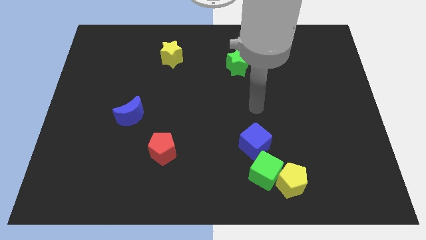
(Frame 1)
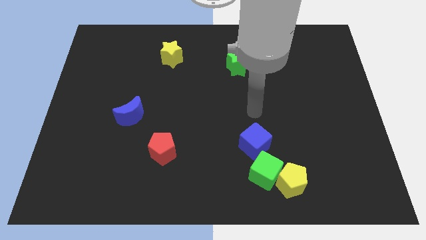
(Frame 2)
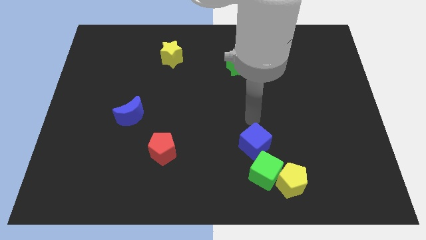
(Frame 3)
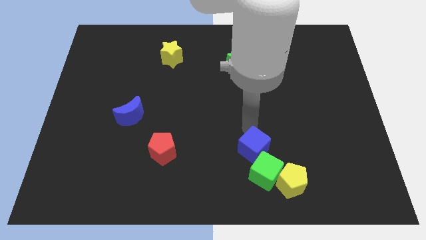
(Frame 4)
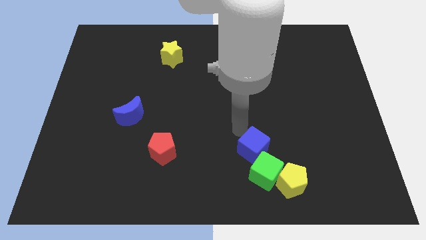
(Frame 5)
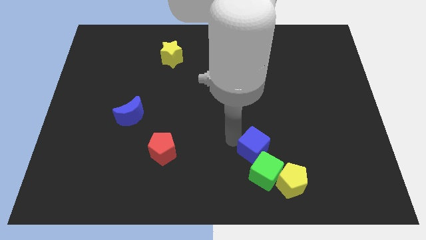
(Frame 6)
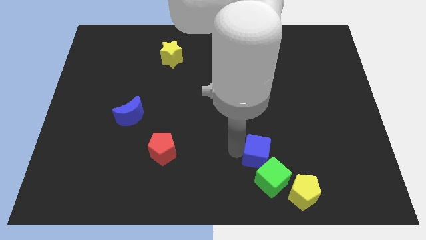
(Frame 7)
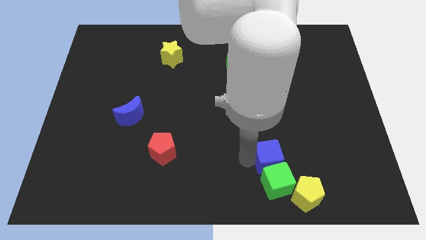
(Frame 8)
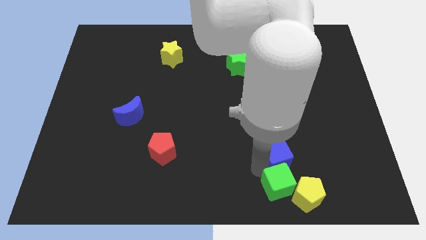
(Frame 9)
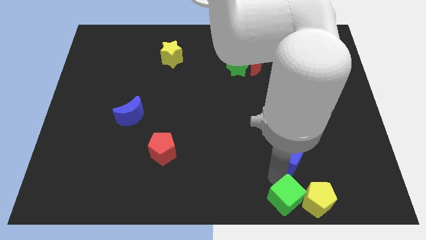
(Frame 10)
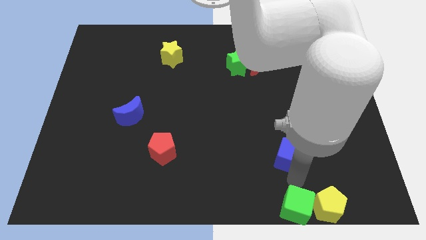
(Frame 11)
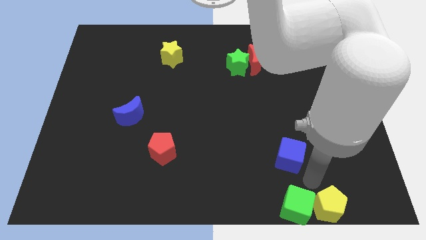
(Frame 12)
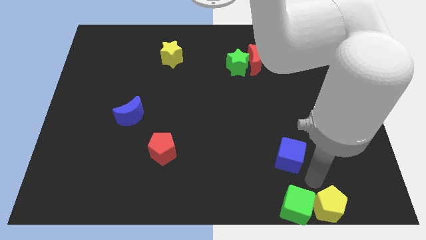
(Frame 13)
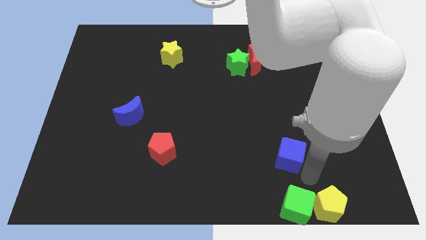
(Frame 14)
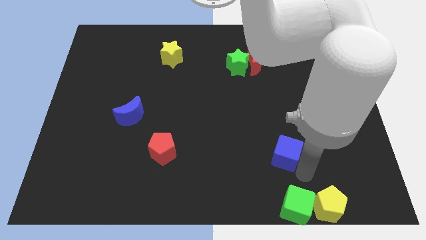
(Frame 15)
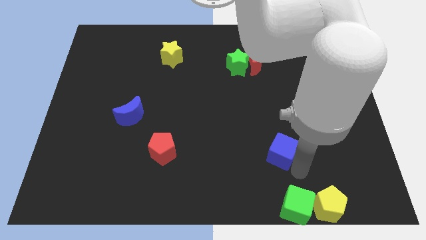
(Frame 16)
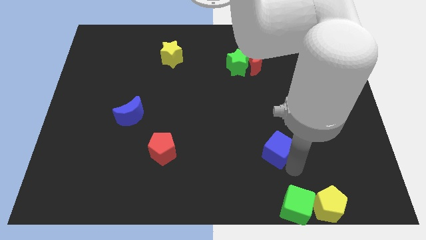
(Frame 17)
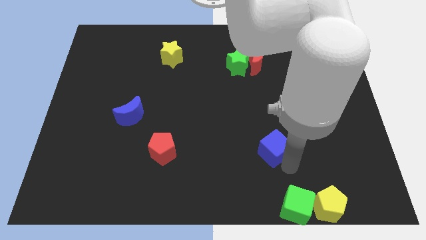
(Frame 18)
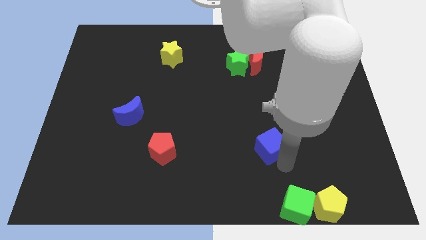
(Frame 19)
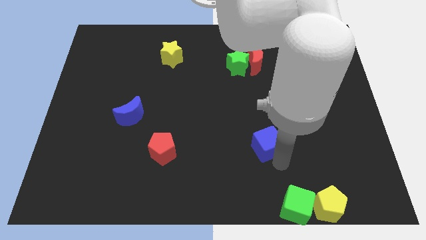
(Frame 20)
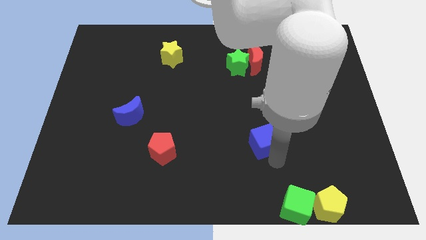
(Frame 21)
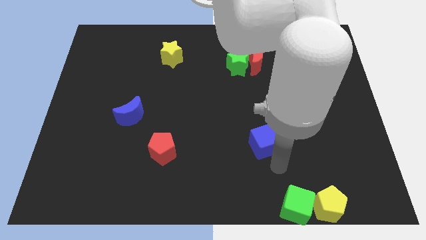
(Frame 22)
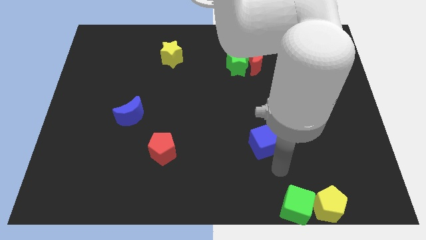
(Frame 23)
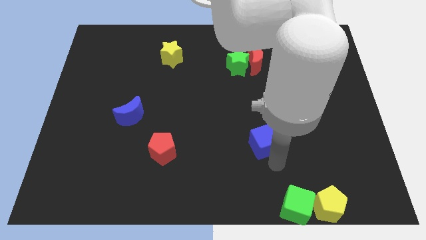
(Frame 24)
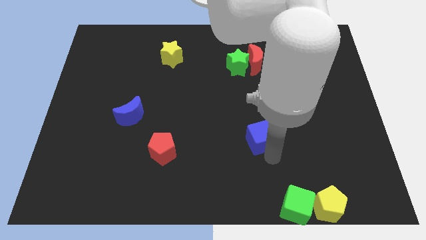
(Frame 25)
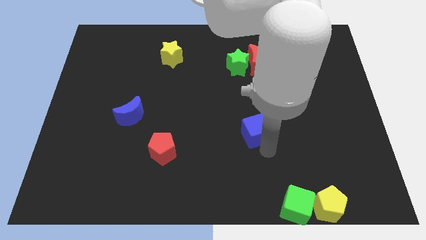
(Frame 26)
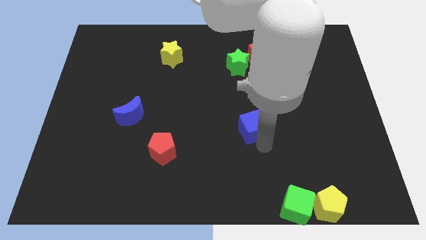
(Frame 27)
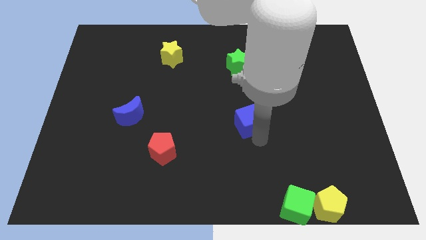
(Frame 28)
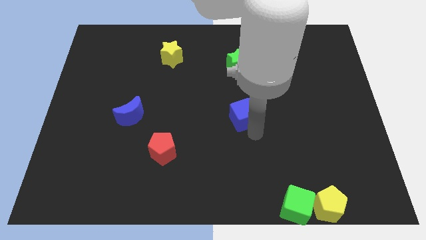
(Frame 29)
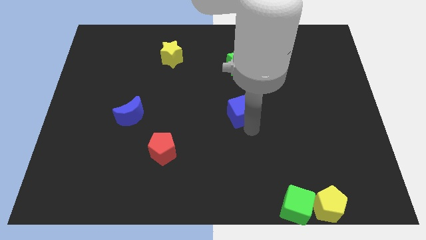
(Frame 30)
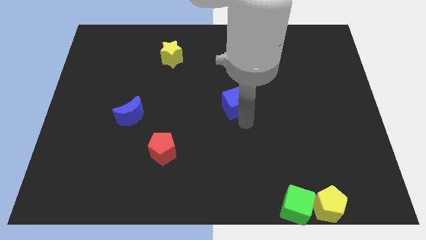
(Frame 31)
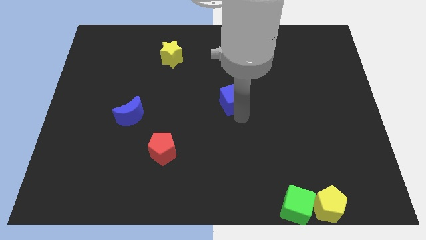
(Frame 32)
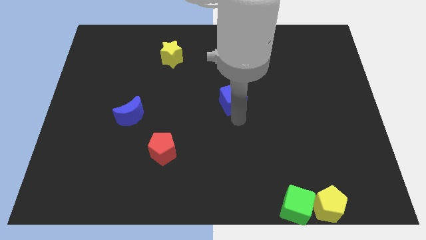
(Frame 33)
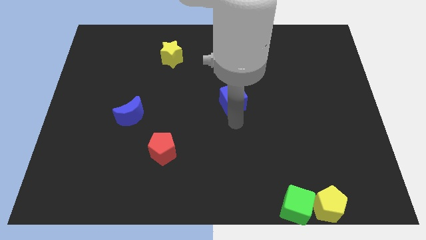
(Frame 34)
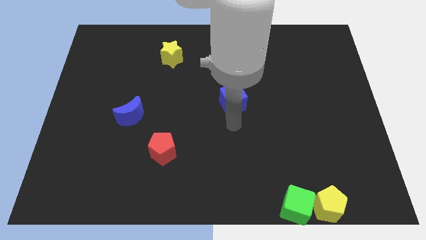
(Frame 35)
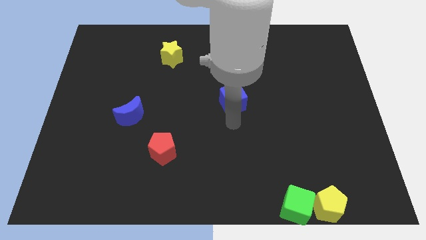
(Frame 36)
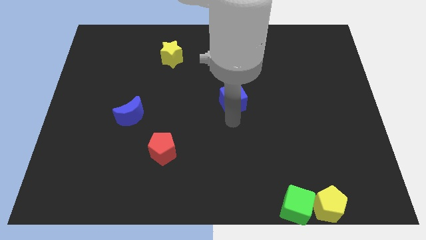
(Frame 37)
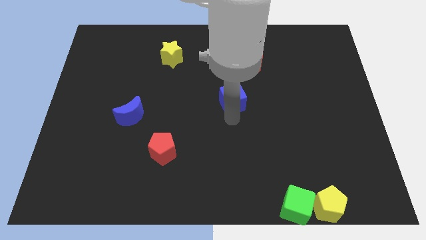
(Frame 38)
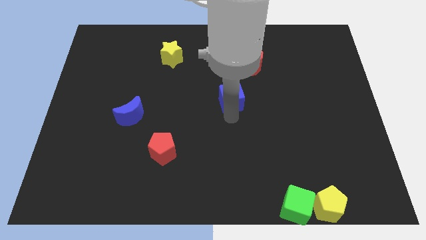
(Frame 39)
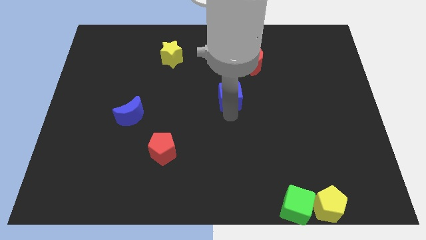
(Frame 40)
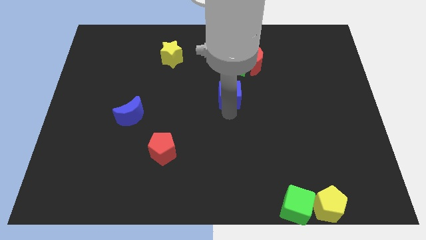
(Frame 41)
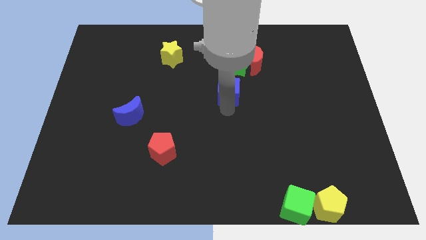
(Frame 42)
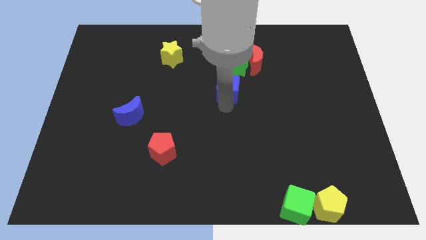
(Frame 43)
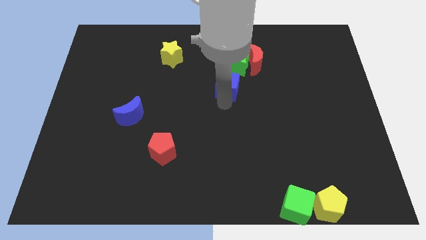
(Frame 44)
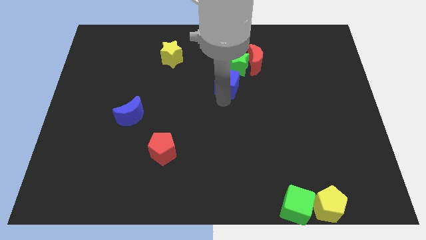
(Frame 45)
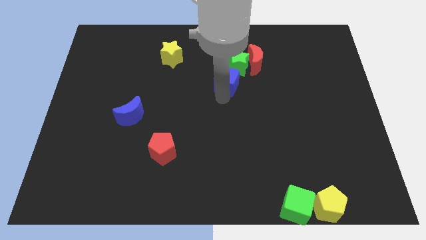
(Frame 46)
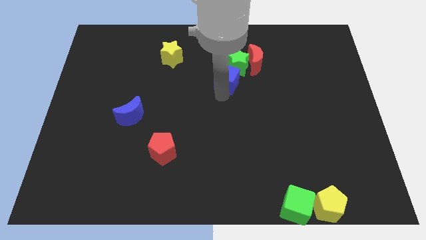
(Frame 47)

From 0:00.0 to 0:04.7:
push the blue cube to the green star

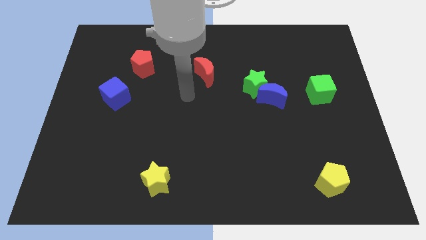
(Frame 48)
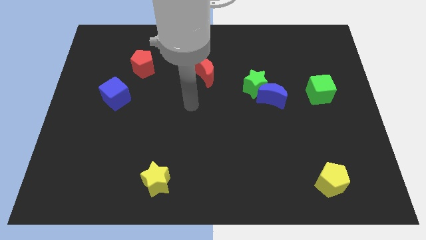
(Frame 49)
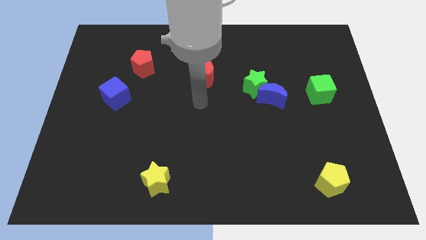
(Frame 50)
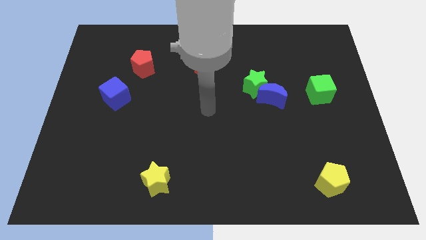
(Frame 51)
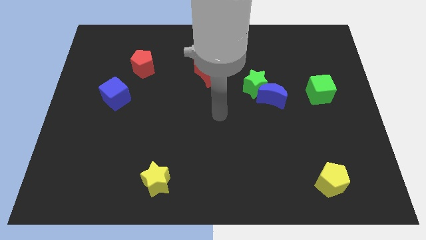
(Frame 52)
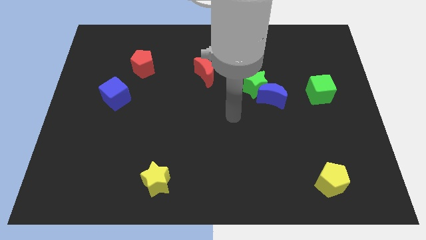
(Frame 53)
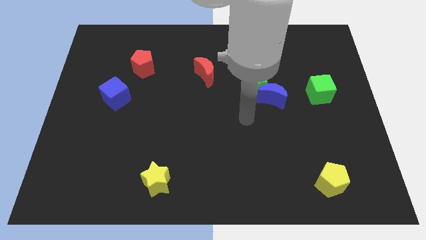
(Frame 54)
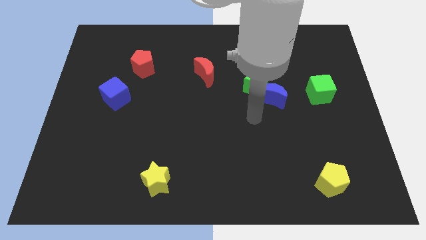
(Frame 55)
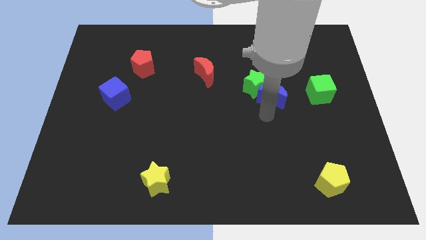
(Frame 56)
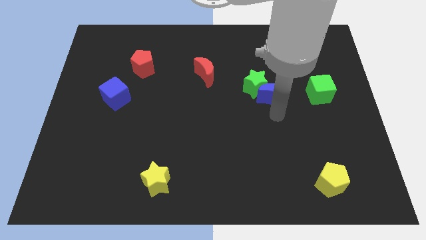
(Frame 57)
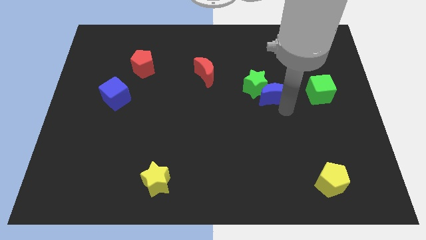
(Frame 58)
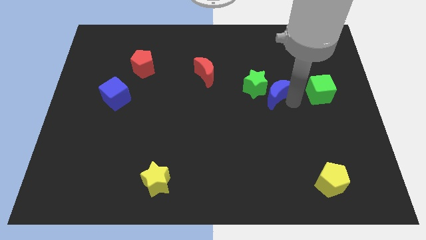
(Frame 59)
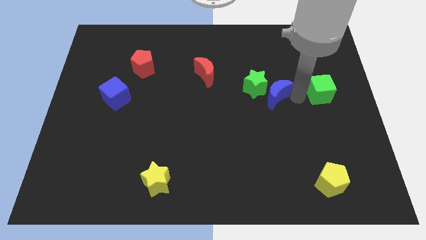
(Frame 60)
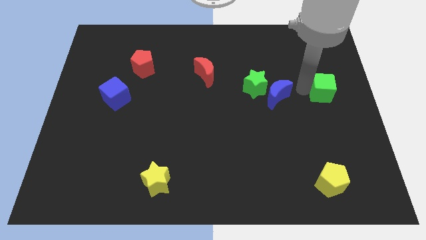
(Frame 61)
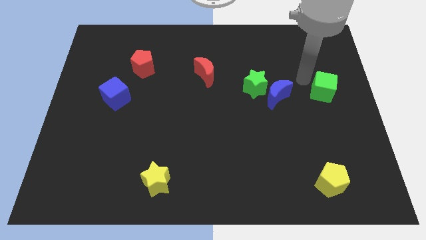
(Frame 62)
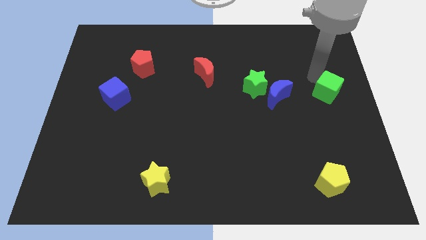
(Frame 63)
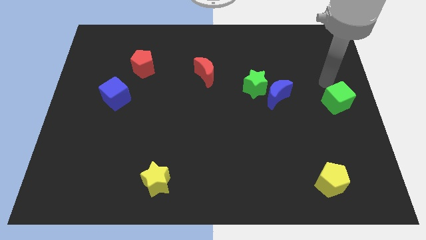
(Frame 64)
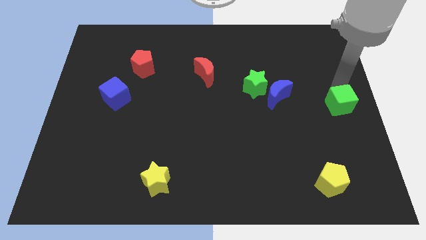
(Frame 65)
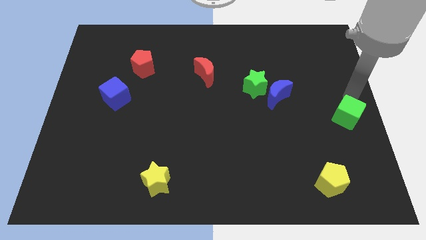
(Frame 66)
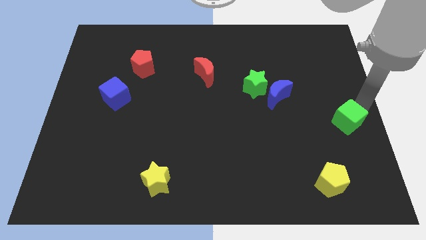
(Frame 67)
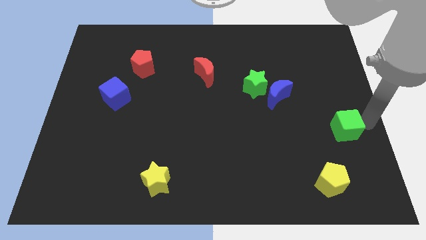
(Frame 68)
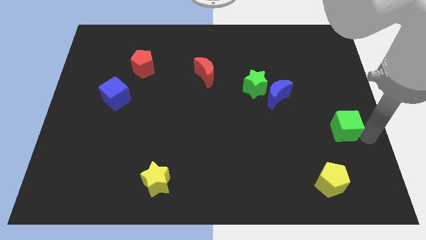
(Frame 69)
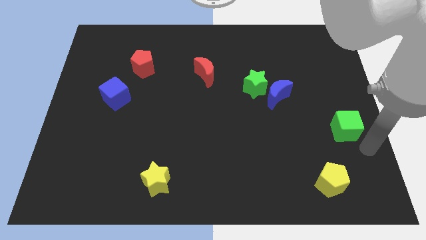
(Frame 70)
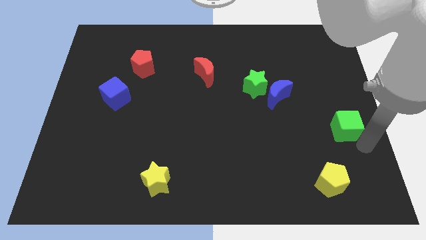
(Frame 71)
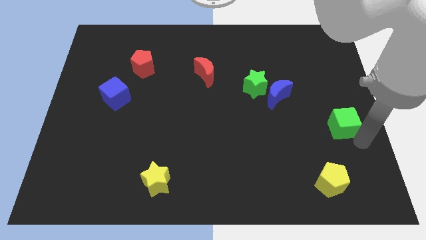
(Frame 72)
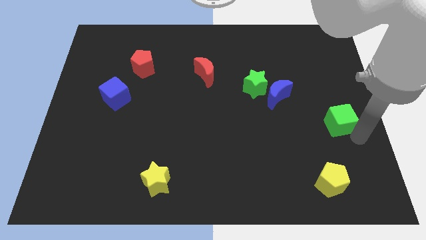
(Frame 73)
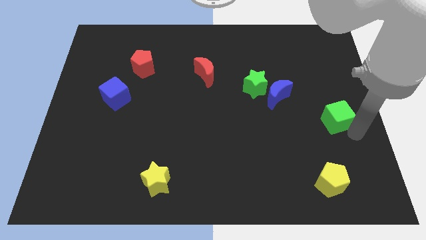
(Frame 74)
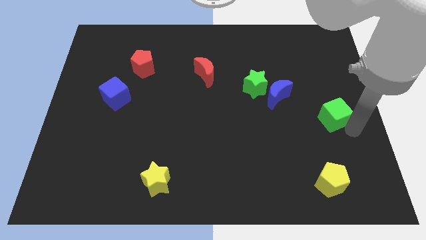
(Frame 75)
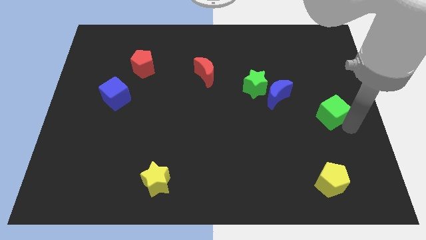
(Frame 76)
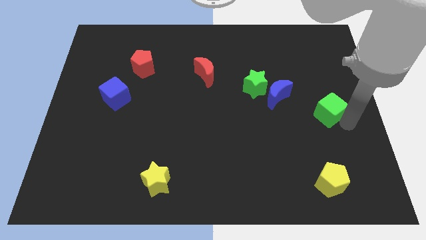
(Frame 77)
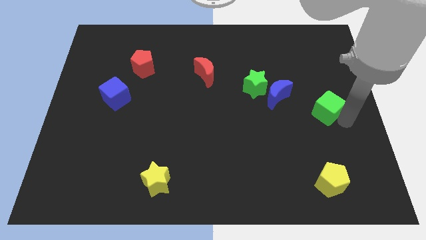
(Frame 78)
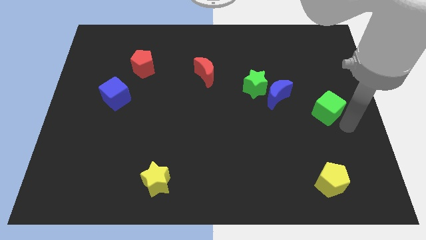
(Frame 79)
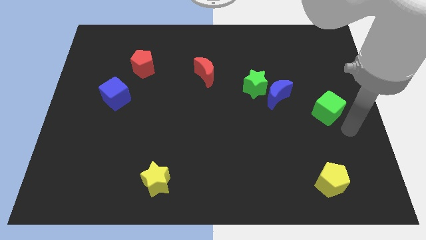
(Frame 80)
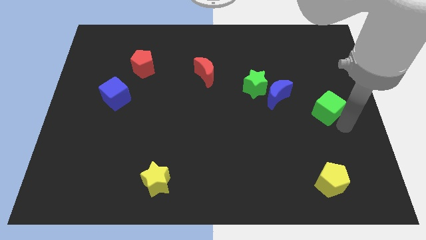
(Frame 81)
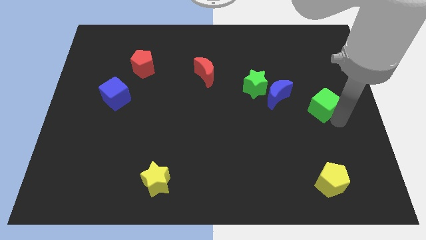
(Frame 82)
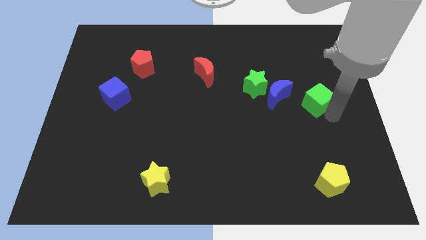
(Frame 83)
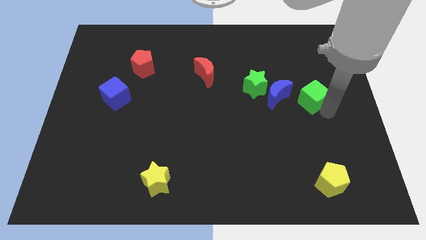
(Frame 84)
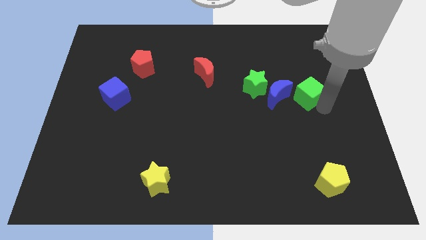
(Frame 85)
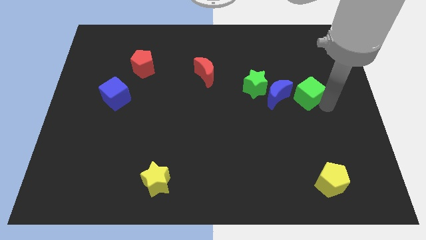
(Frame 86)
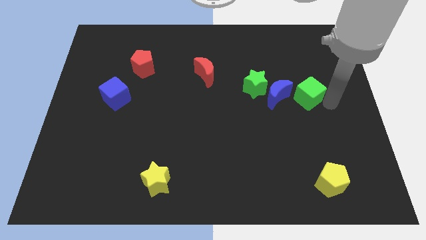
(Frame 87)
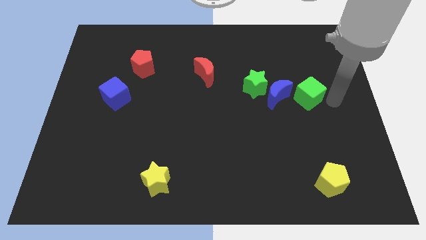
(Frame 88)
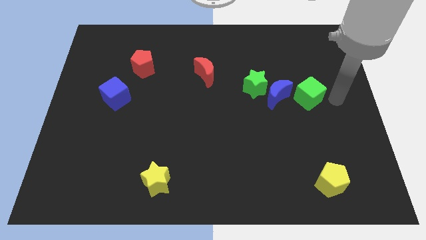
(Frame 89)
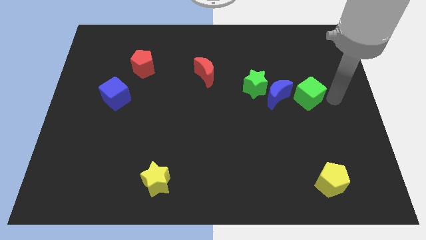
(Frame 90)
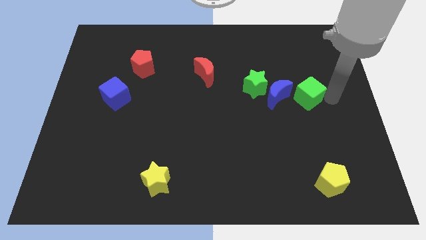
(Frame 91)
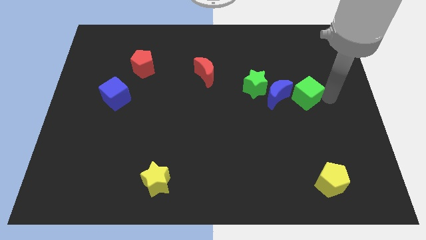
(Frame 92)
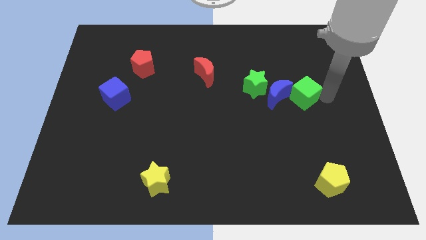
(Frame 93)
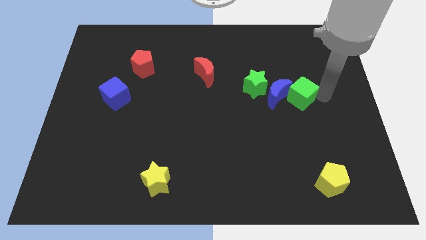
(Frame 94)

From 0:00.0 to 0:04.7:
move the green cube to the blue moon
